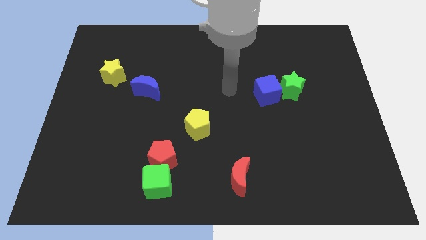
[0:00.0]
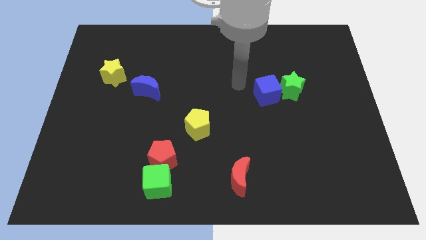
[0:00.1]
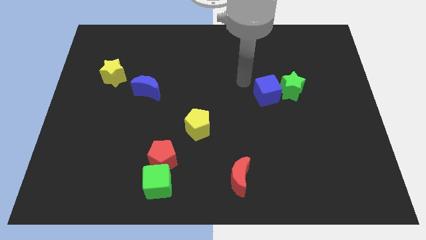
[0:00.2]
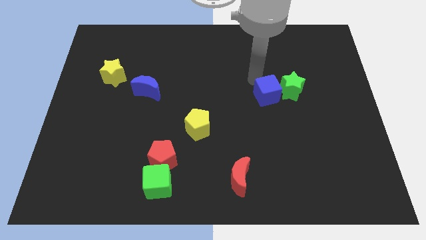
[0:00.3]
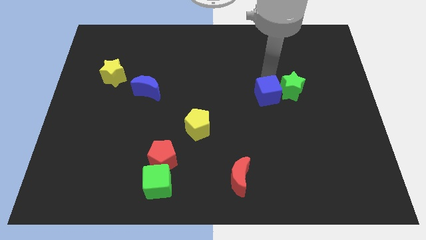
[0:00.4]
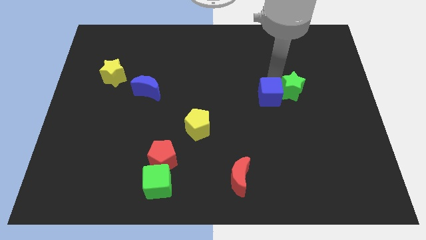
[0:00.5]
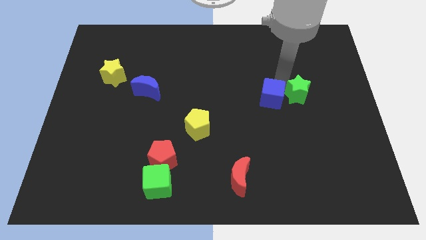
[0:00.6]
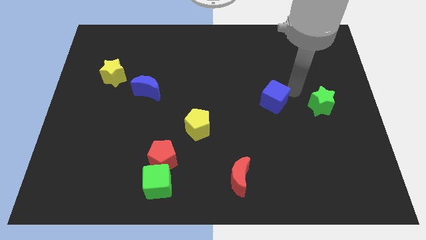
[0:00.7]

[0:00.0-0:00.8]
move the blue cube away from the green star

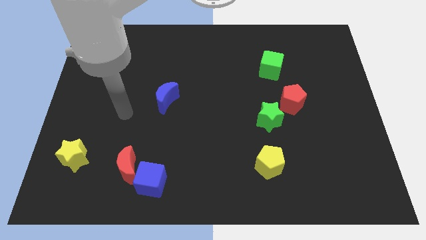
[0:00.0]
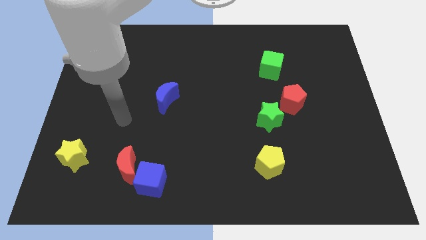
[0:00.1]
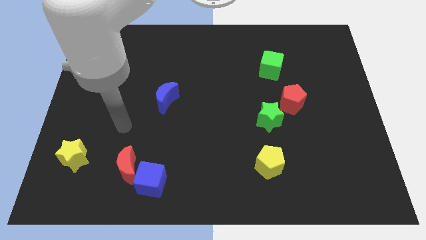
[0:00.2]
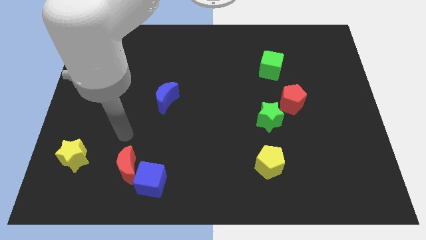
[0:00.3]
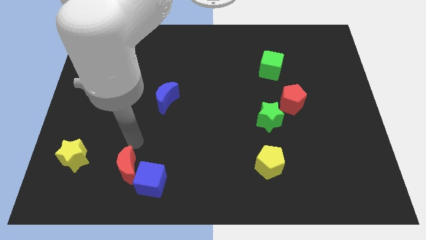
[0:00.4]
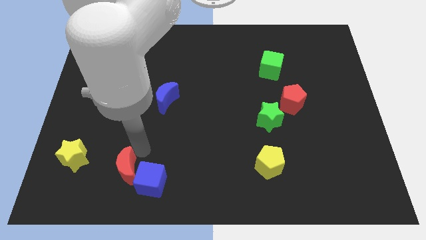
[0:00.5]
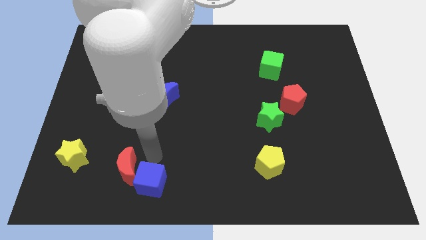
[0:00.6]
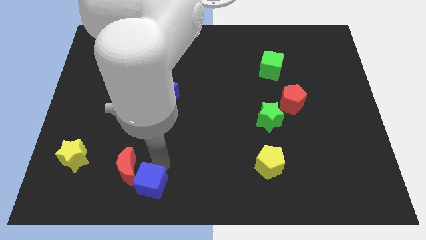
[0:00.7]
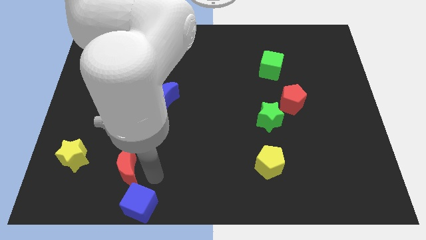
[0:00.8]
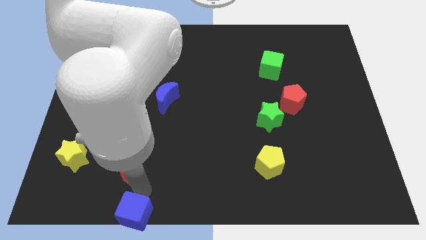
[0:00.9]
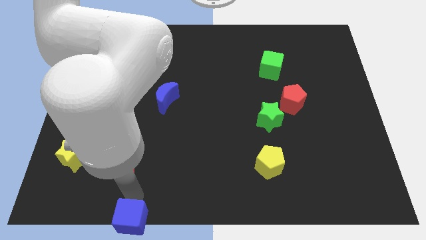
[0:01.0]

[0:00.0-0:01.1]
separate the red moon from the blue cube

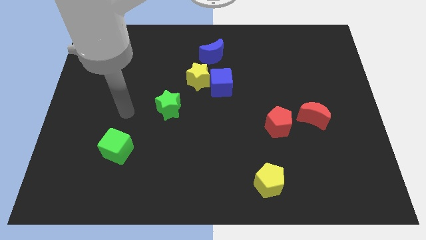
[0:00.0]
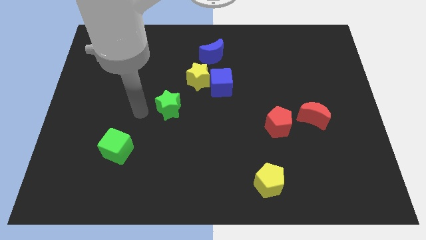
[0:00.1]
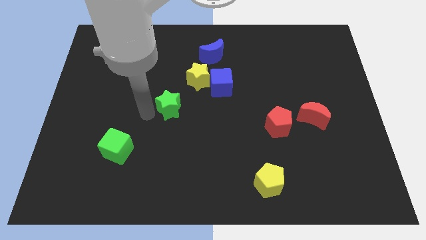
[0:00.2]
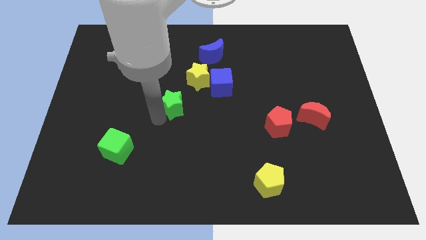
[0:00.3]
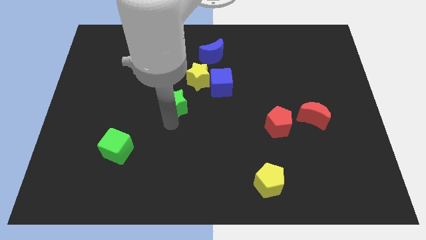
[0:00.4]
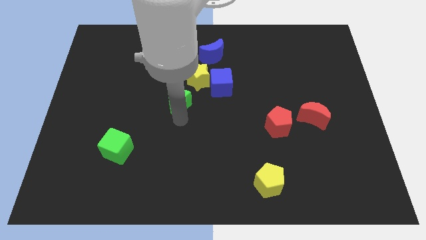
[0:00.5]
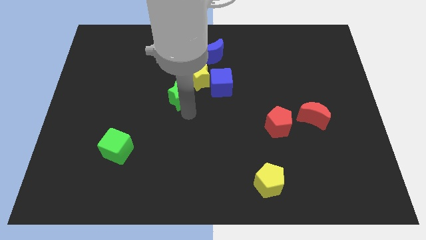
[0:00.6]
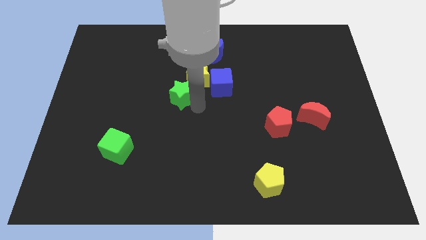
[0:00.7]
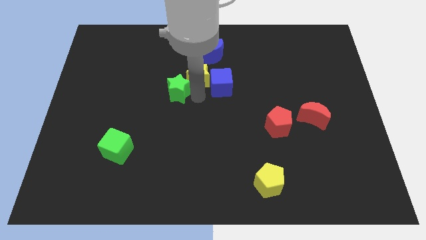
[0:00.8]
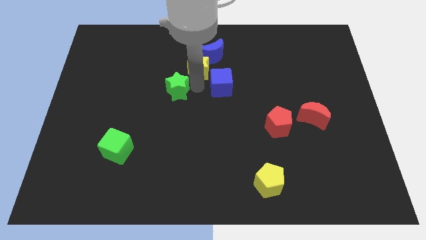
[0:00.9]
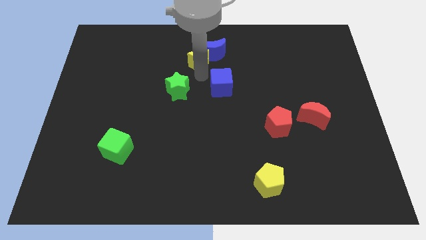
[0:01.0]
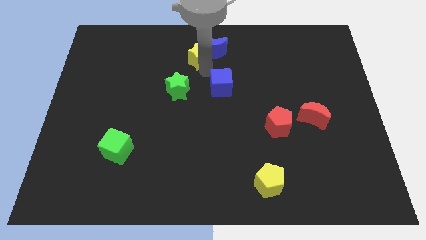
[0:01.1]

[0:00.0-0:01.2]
pull the blue cube apart from the yellow star

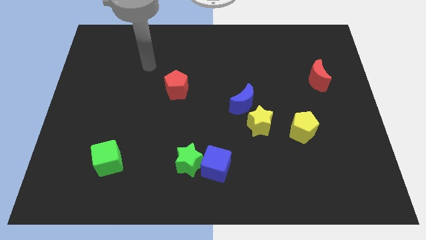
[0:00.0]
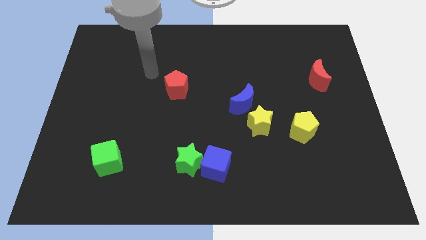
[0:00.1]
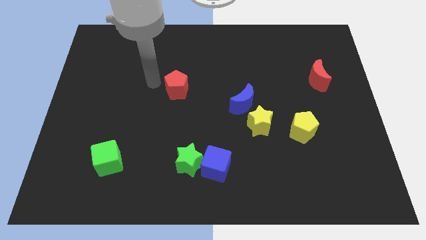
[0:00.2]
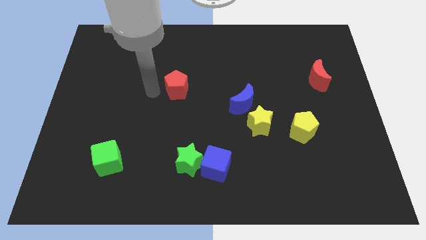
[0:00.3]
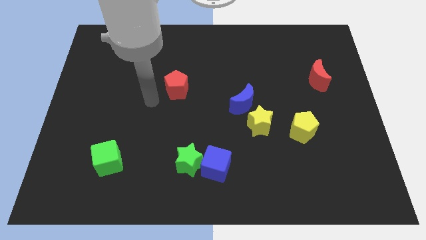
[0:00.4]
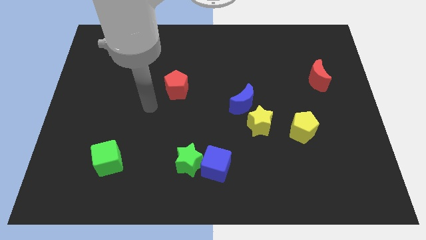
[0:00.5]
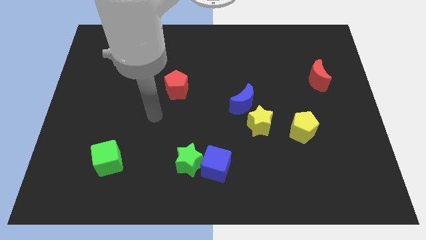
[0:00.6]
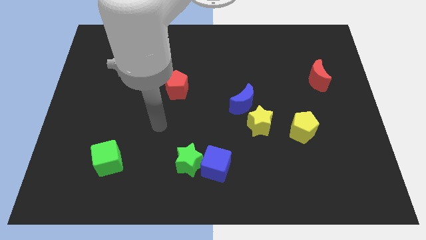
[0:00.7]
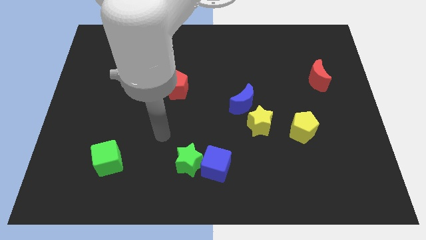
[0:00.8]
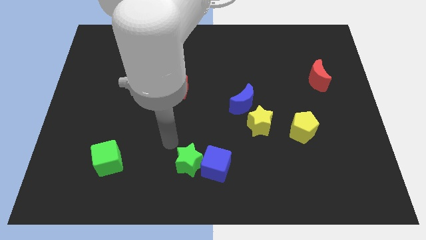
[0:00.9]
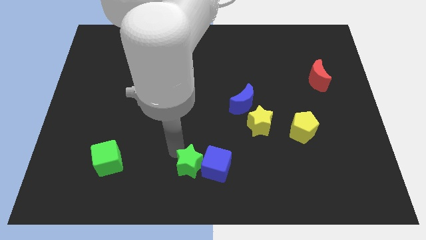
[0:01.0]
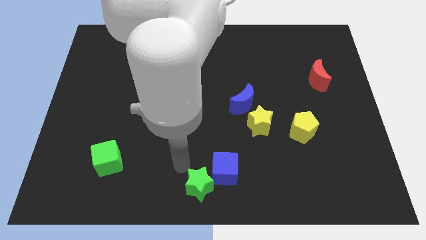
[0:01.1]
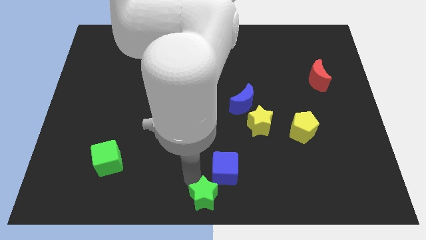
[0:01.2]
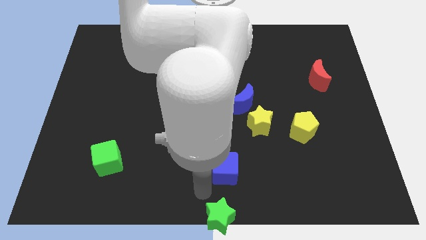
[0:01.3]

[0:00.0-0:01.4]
separate the blue cube from the green star

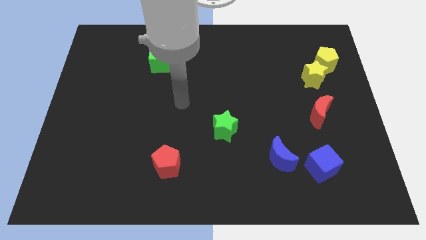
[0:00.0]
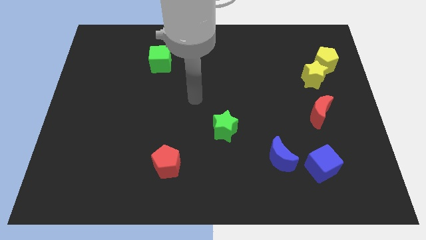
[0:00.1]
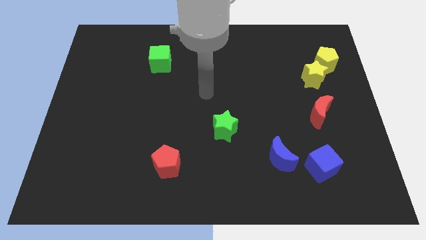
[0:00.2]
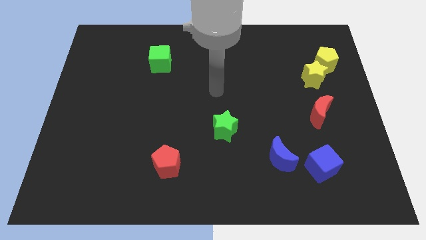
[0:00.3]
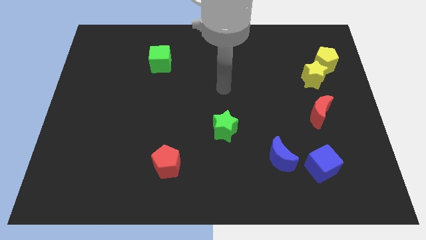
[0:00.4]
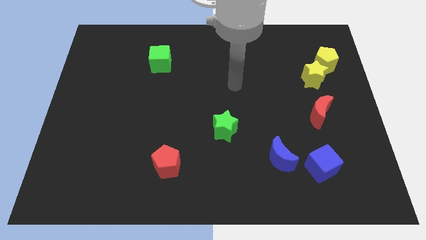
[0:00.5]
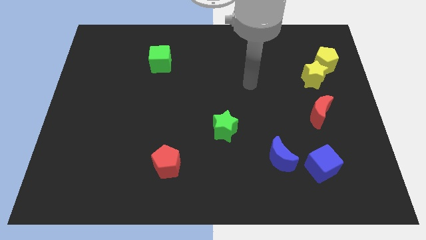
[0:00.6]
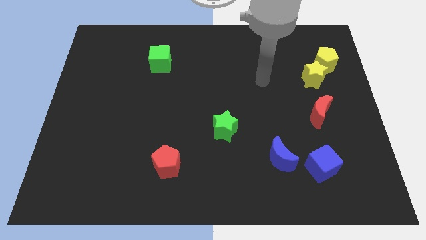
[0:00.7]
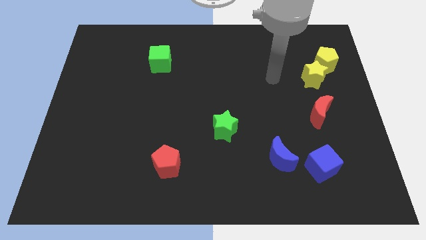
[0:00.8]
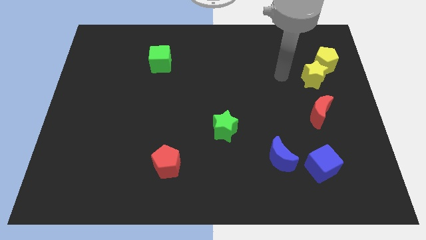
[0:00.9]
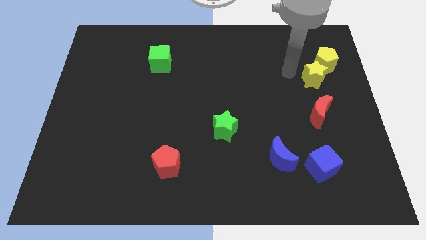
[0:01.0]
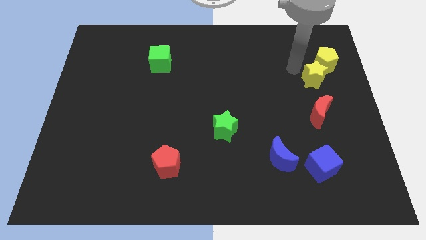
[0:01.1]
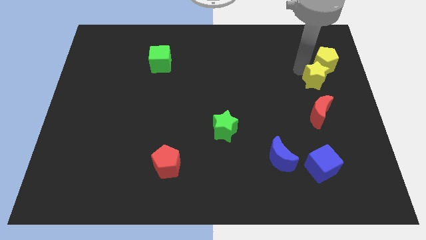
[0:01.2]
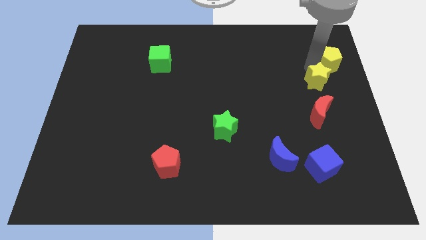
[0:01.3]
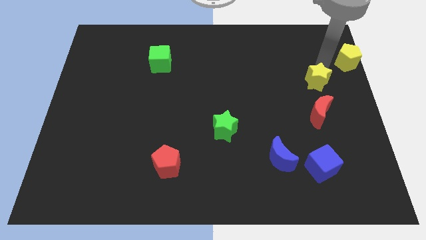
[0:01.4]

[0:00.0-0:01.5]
separate the yellow star from the yellow pentagon

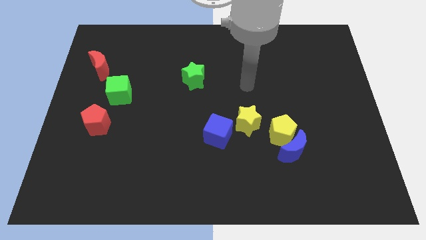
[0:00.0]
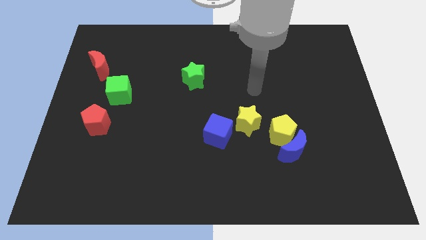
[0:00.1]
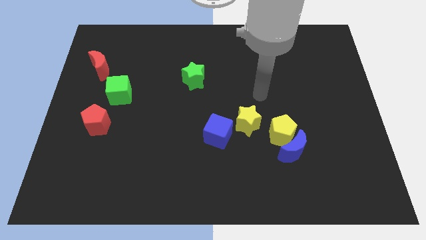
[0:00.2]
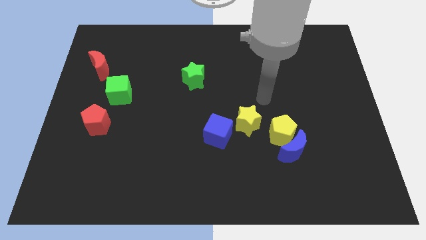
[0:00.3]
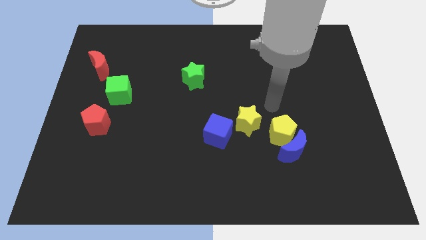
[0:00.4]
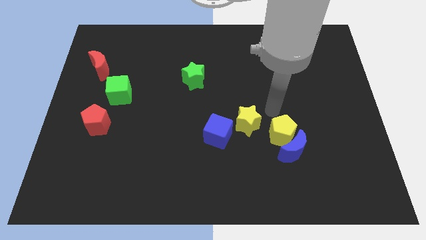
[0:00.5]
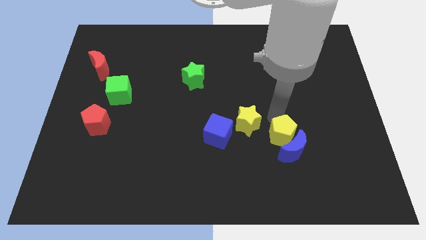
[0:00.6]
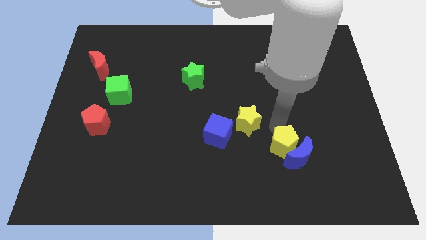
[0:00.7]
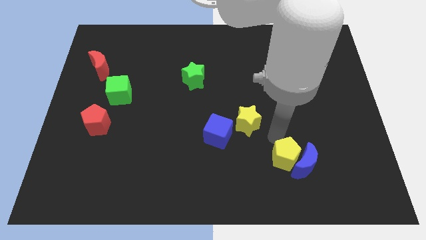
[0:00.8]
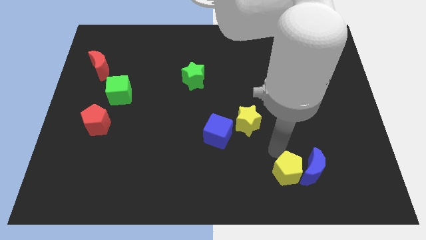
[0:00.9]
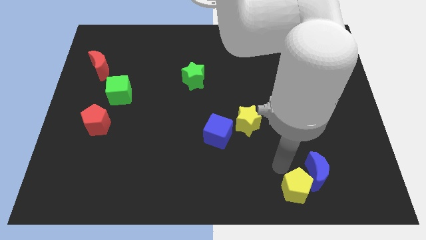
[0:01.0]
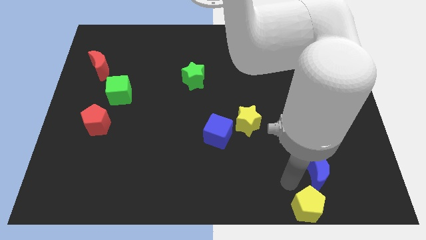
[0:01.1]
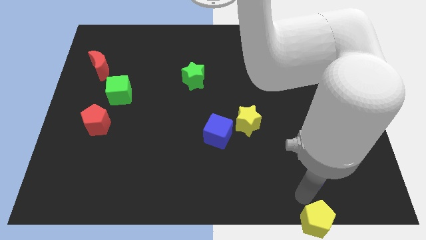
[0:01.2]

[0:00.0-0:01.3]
pull the blue moon apart from the yellow pentagon

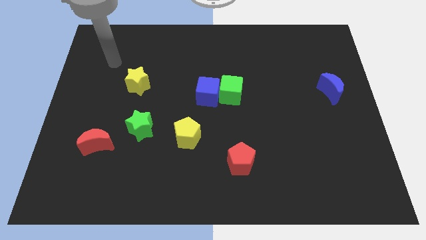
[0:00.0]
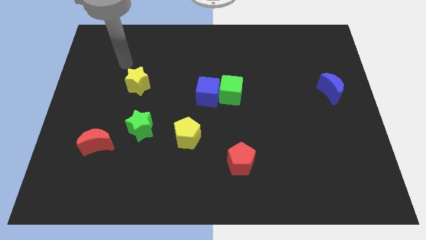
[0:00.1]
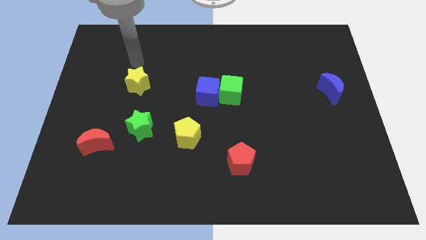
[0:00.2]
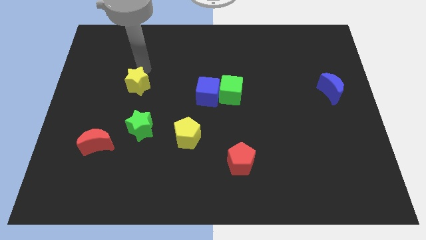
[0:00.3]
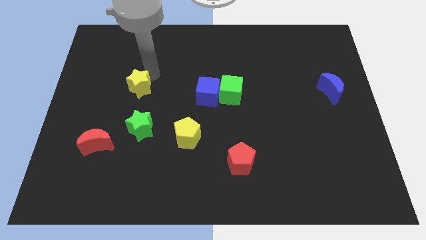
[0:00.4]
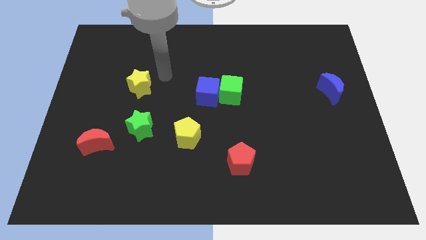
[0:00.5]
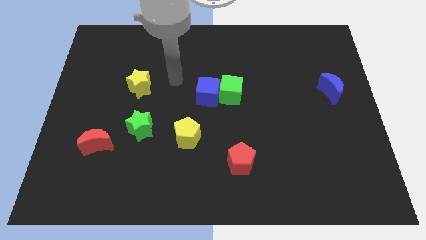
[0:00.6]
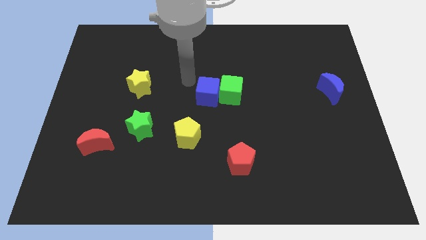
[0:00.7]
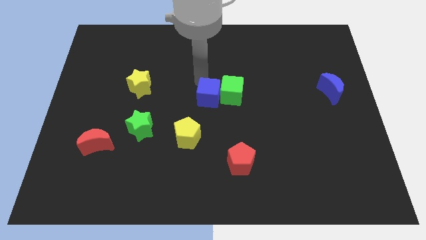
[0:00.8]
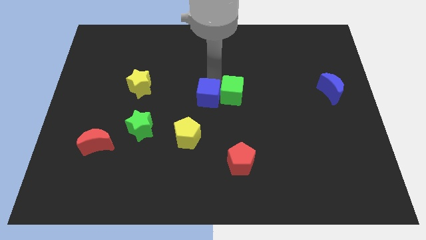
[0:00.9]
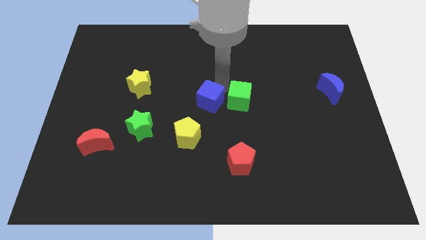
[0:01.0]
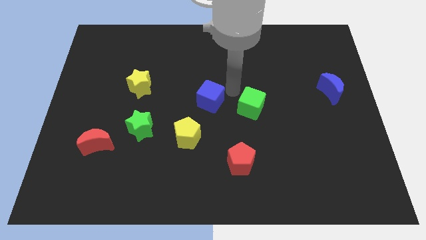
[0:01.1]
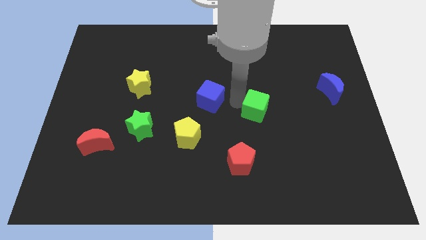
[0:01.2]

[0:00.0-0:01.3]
move the blue cube away from the green cube

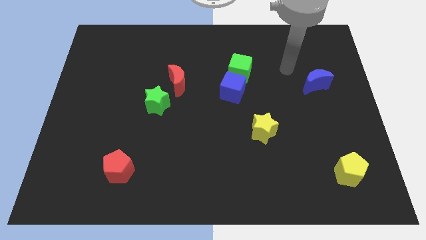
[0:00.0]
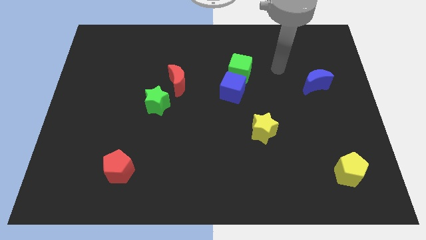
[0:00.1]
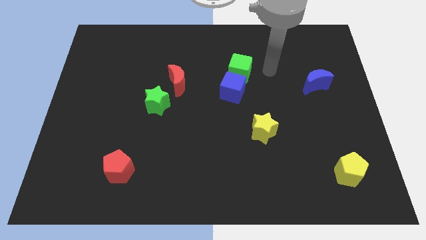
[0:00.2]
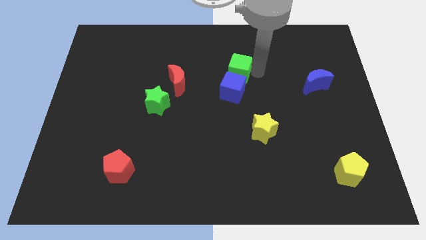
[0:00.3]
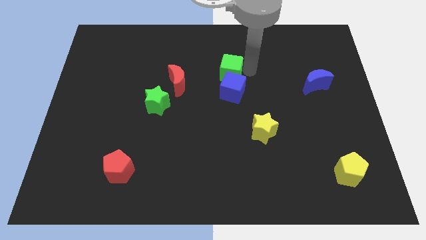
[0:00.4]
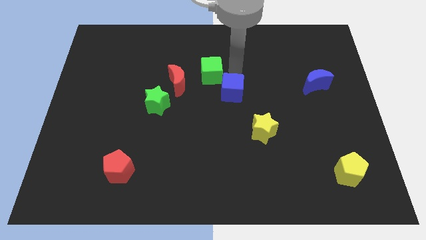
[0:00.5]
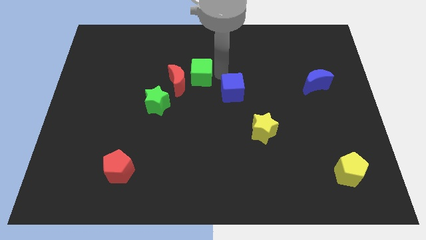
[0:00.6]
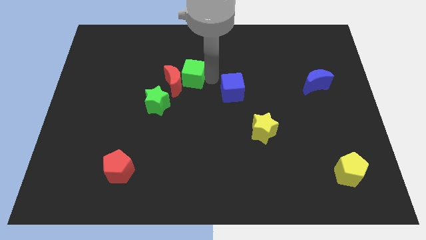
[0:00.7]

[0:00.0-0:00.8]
pull the blue cube apart from the green cube
